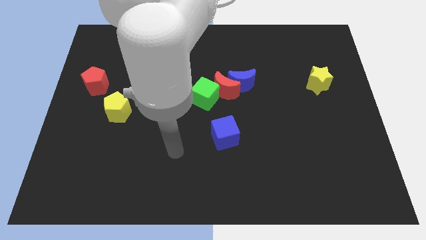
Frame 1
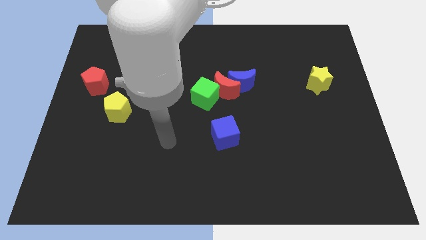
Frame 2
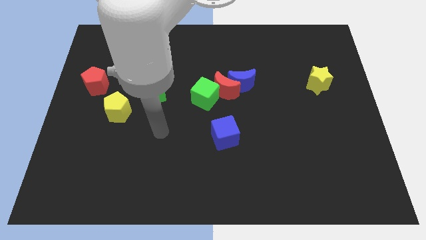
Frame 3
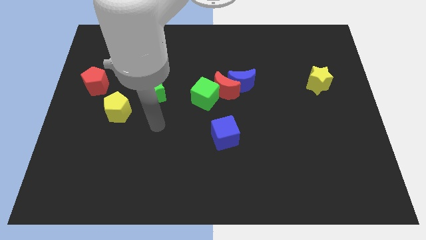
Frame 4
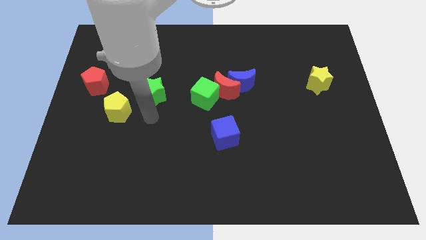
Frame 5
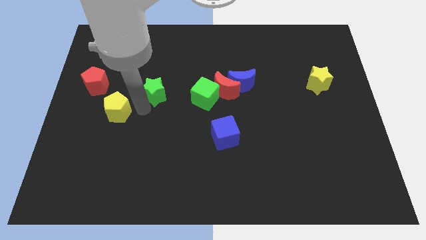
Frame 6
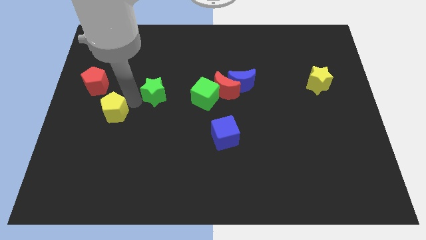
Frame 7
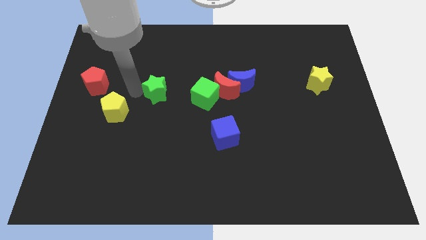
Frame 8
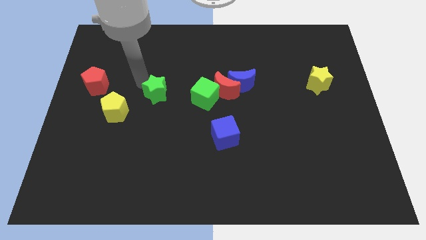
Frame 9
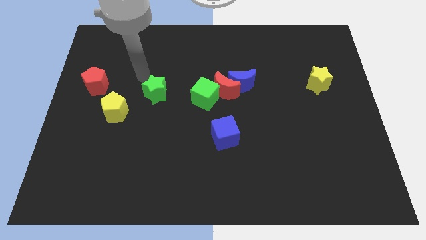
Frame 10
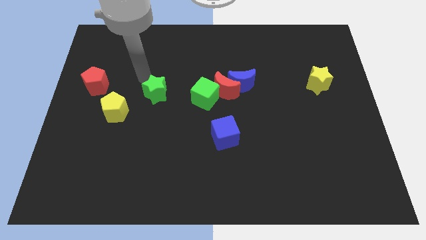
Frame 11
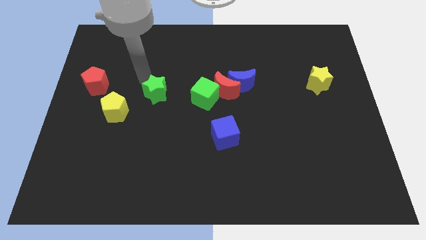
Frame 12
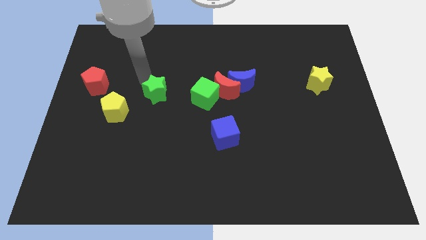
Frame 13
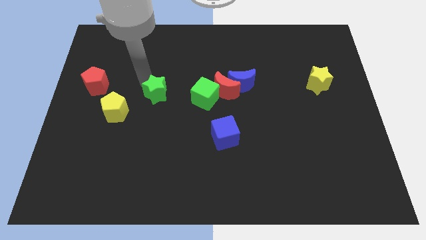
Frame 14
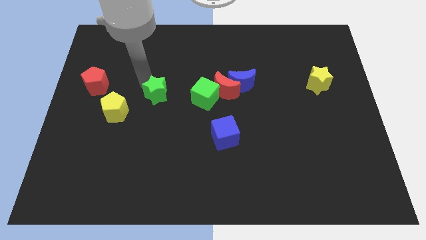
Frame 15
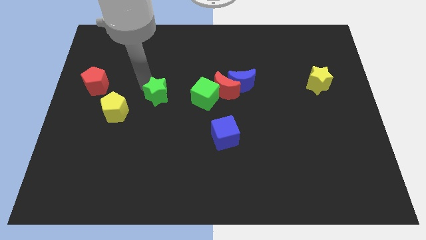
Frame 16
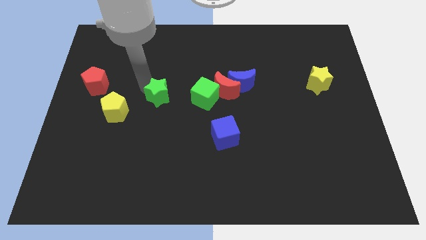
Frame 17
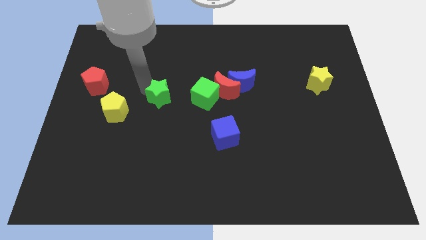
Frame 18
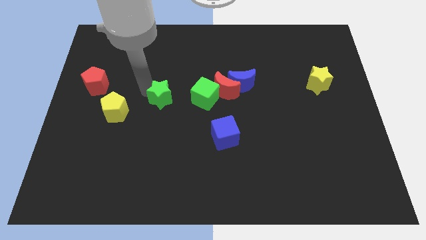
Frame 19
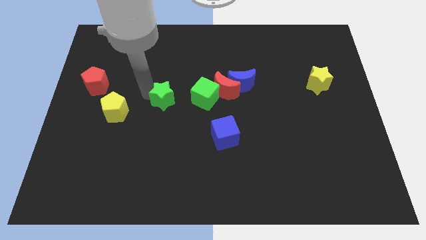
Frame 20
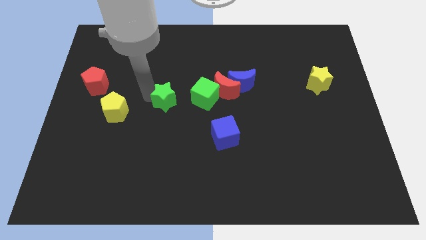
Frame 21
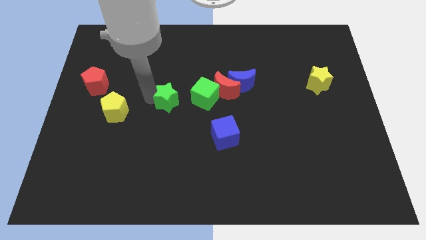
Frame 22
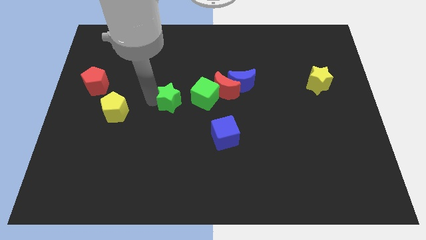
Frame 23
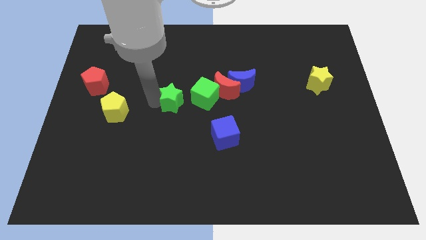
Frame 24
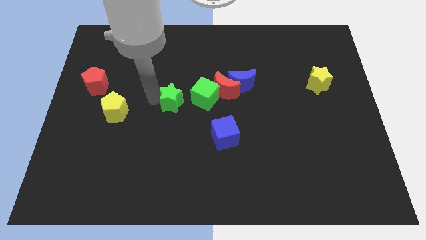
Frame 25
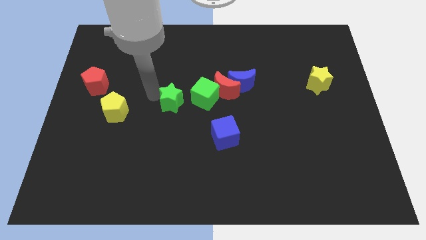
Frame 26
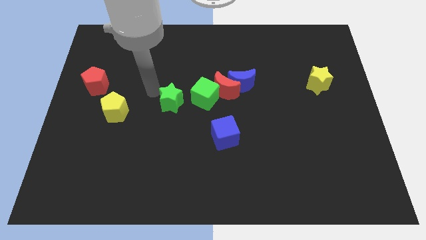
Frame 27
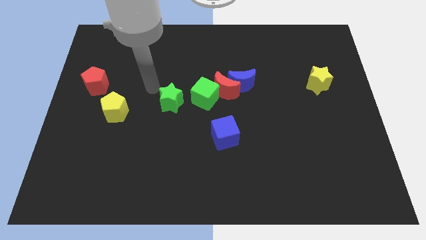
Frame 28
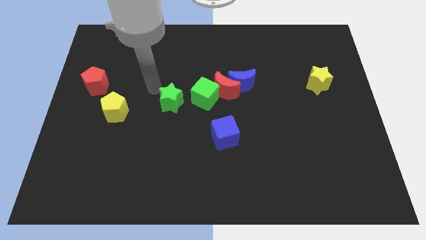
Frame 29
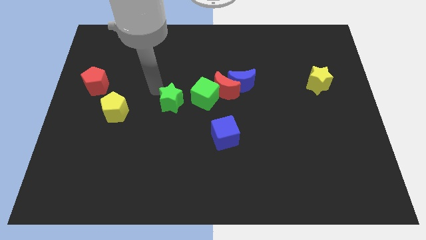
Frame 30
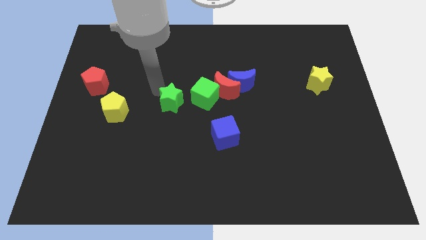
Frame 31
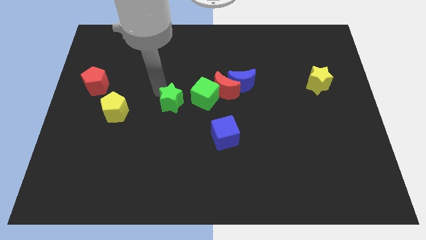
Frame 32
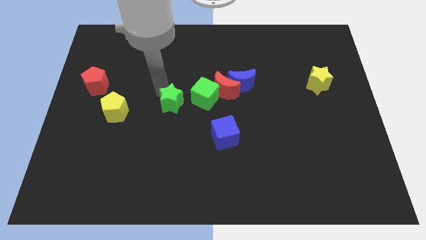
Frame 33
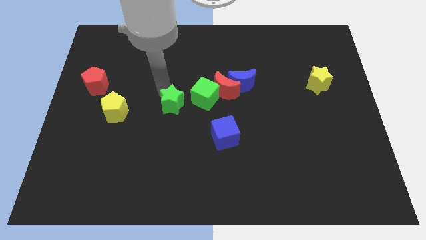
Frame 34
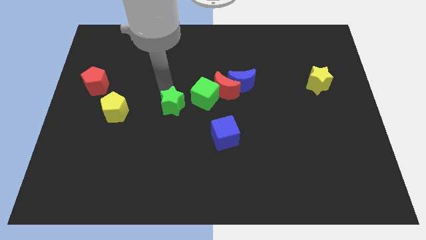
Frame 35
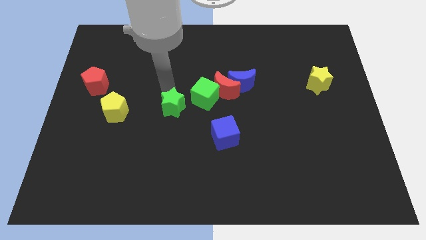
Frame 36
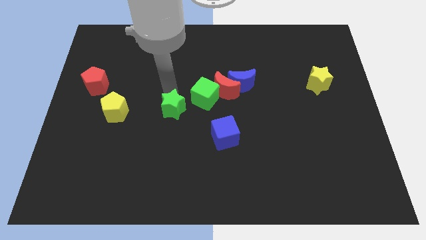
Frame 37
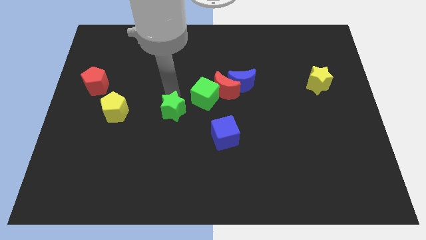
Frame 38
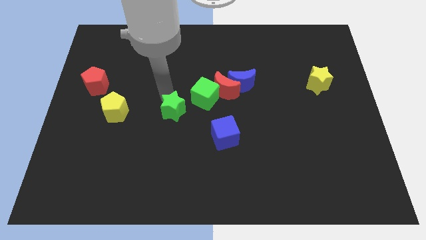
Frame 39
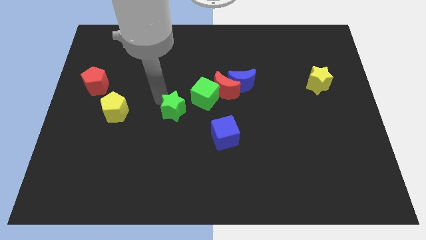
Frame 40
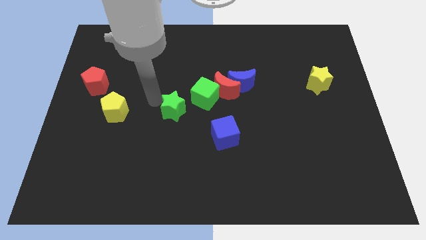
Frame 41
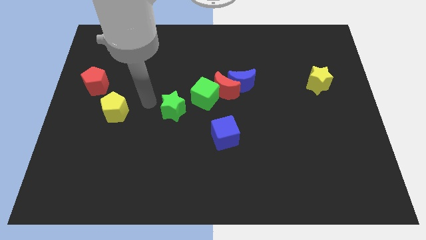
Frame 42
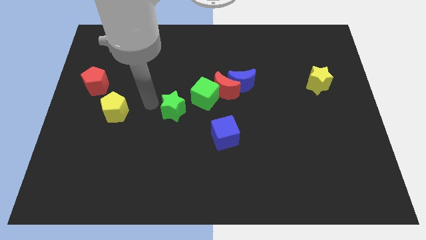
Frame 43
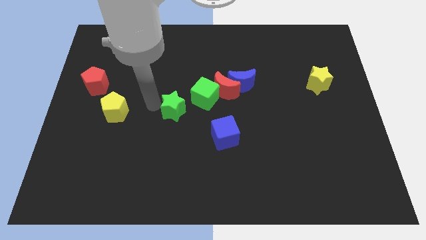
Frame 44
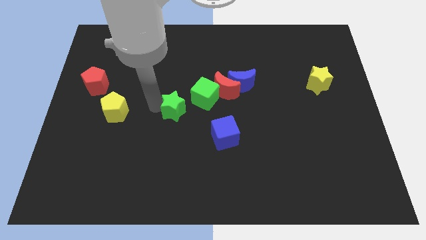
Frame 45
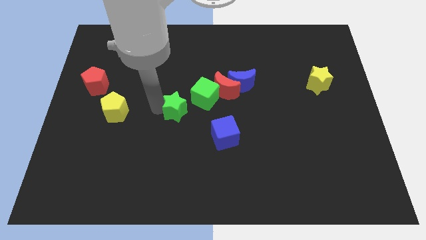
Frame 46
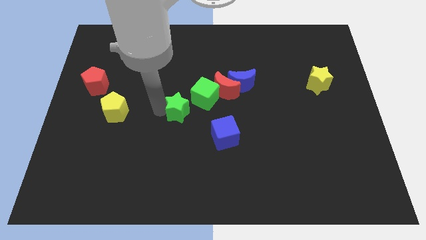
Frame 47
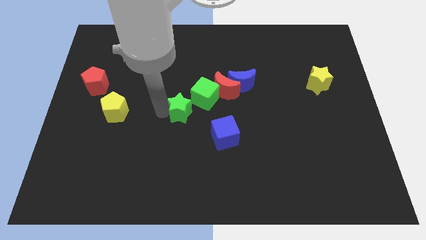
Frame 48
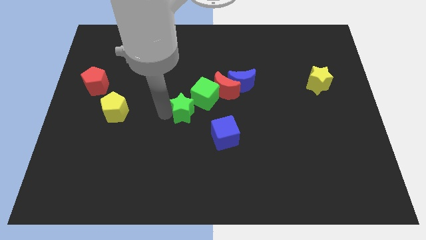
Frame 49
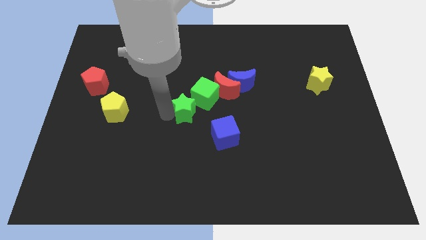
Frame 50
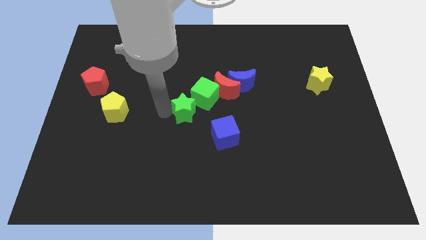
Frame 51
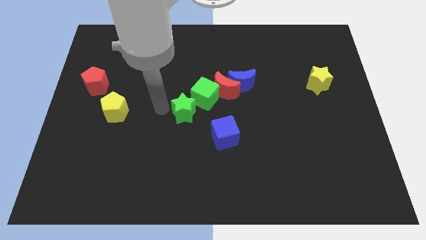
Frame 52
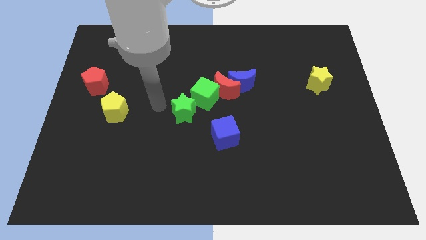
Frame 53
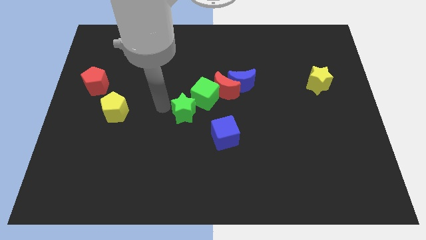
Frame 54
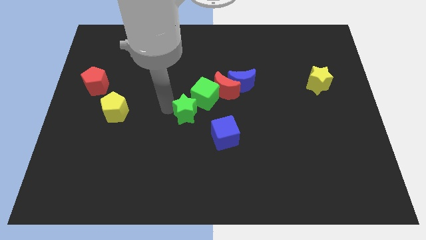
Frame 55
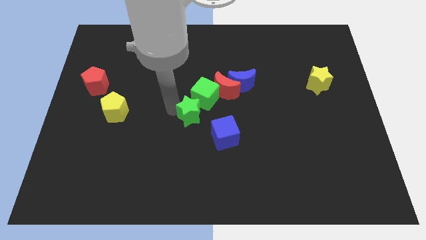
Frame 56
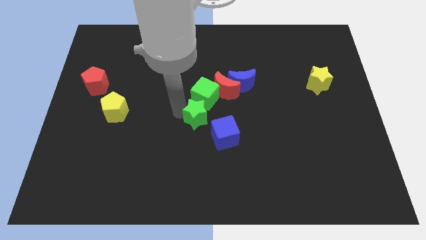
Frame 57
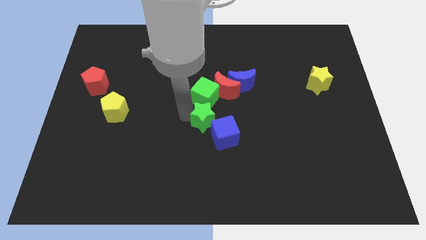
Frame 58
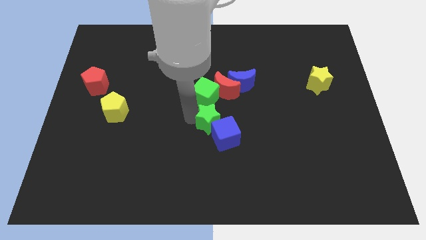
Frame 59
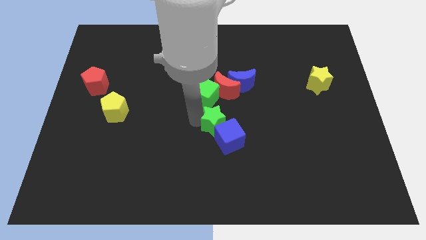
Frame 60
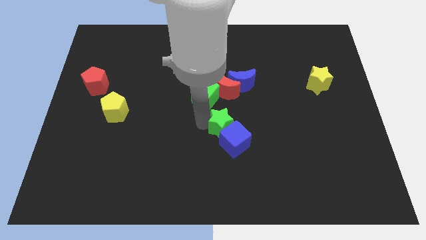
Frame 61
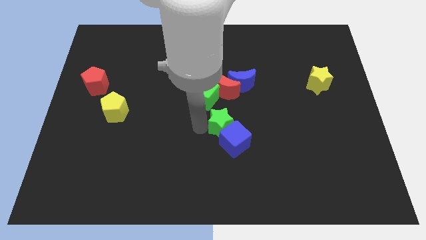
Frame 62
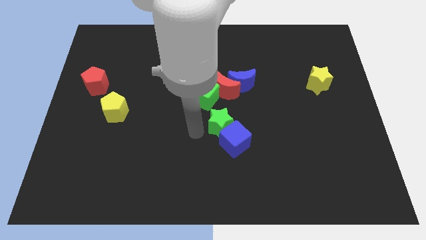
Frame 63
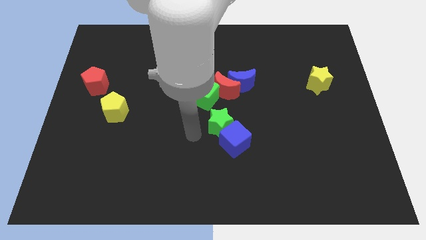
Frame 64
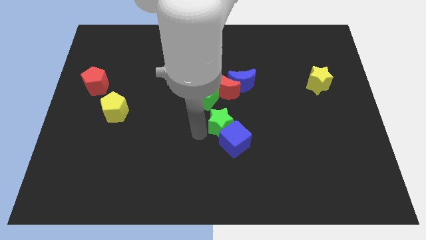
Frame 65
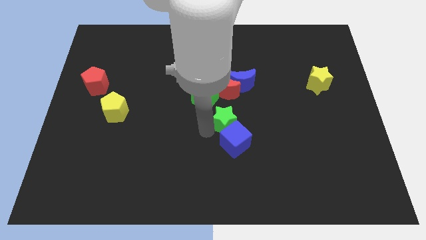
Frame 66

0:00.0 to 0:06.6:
slide the green star below the blue moon

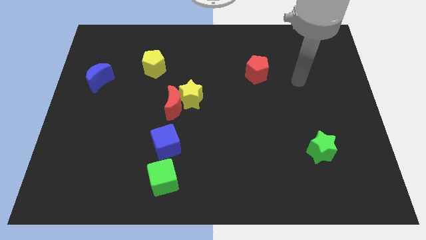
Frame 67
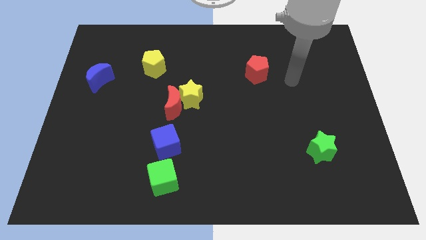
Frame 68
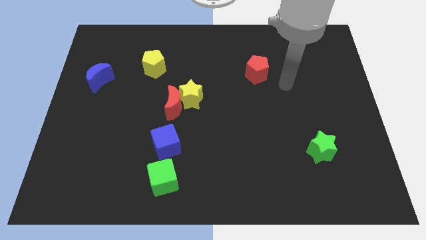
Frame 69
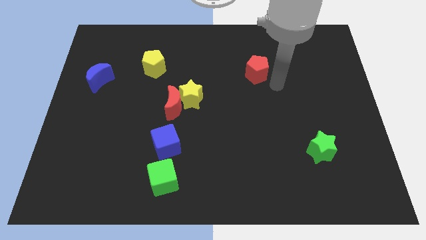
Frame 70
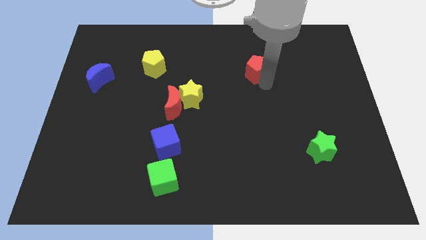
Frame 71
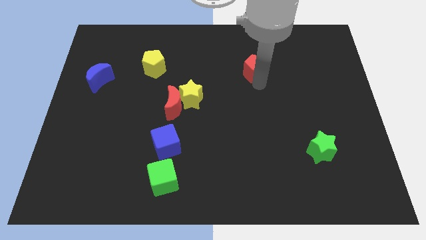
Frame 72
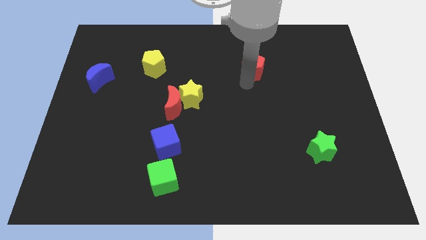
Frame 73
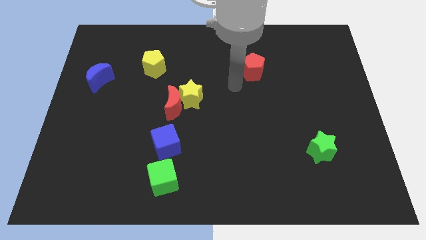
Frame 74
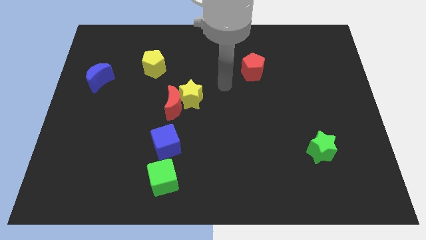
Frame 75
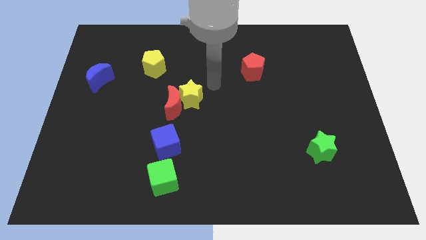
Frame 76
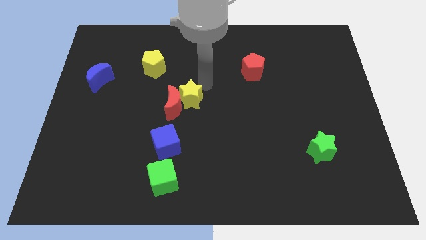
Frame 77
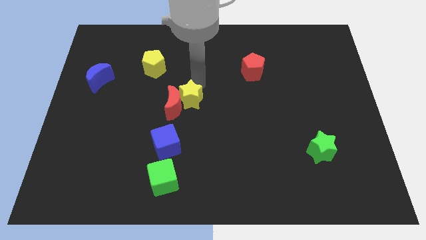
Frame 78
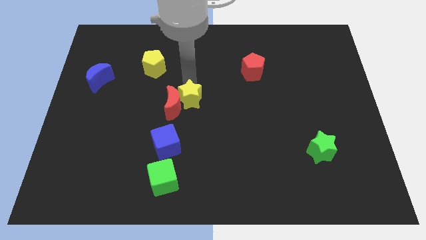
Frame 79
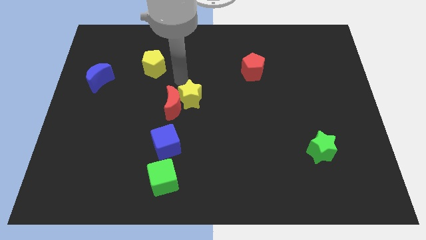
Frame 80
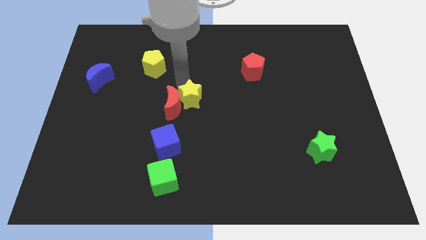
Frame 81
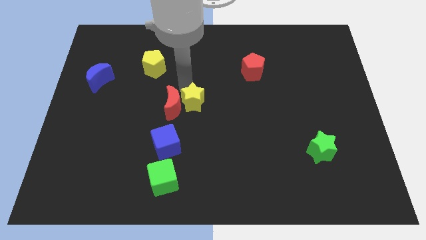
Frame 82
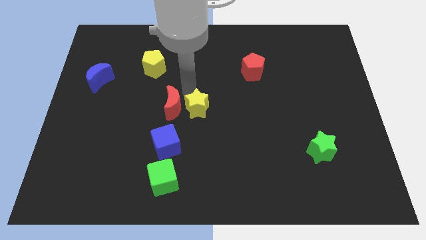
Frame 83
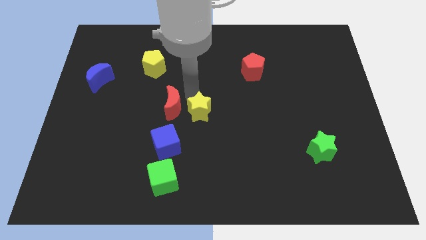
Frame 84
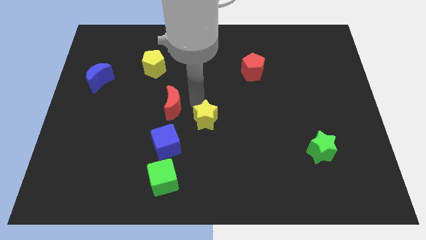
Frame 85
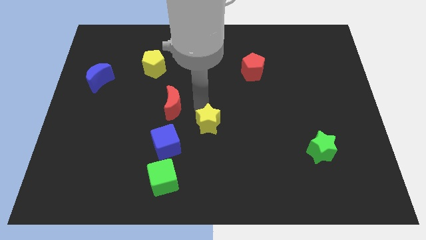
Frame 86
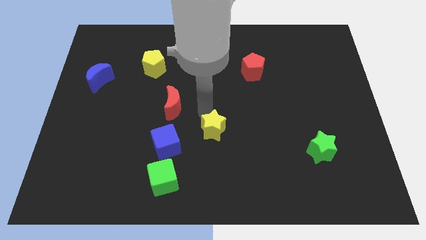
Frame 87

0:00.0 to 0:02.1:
push the yellow star to the right of the blue cube
